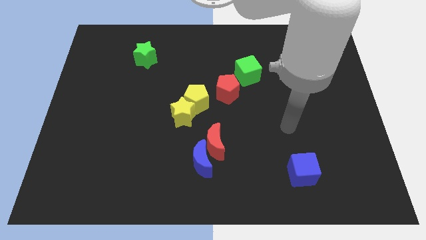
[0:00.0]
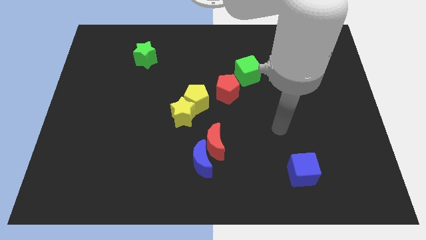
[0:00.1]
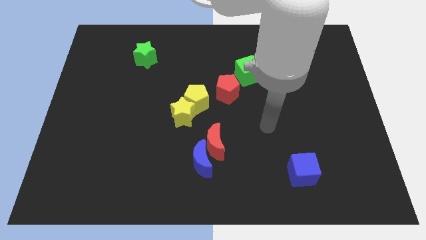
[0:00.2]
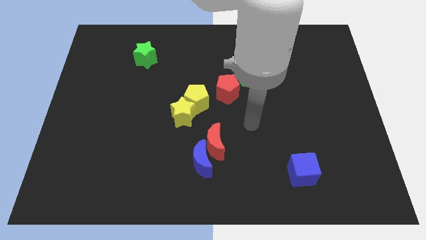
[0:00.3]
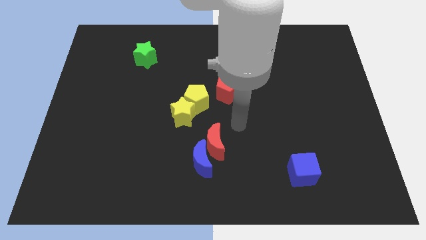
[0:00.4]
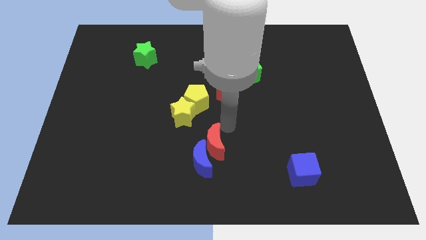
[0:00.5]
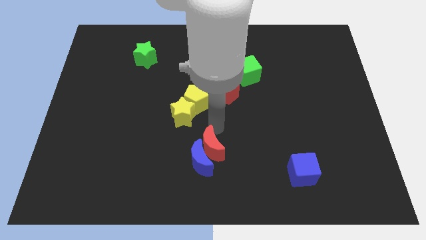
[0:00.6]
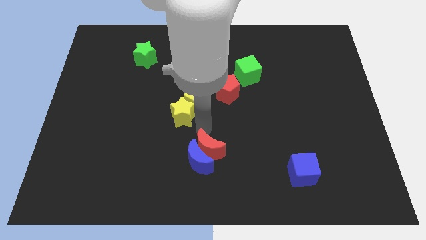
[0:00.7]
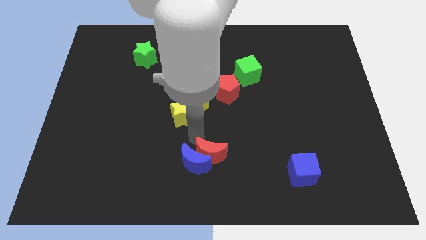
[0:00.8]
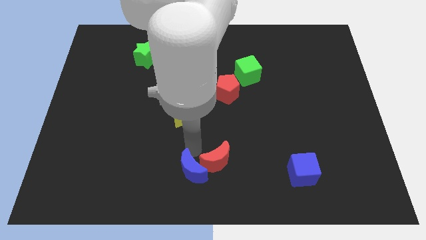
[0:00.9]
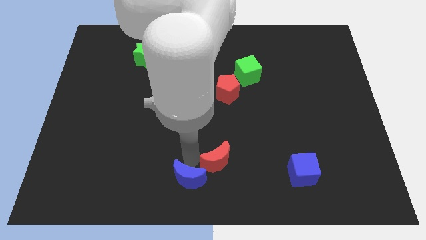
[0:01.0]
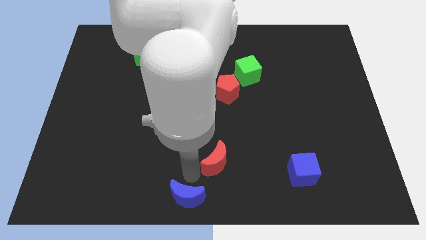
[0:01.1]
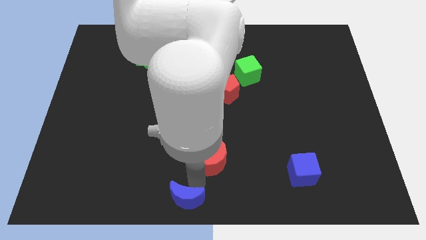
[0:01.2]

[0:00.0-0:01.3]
pull the red moon apart from the blue moon

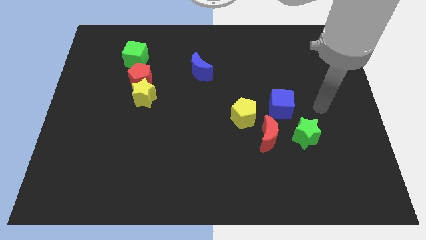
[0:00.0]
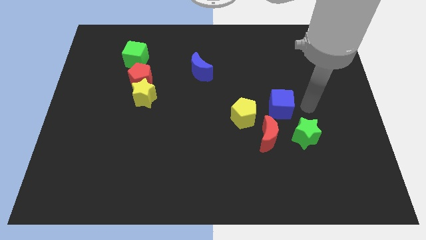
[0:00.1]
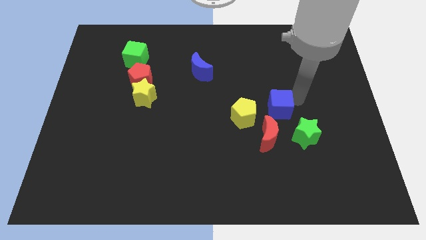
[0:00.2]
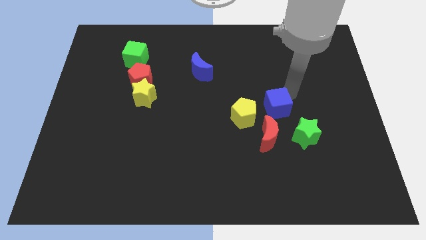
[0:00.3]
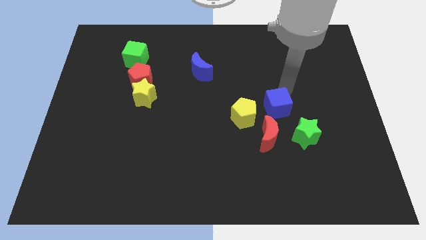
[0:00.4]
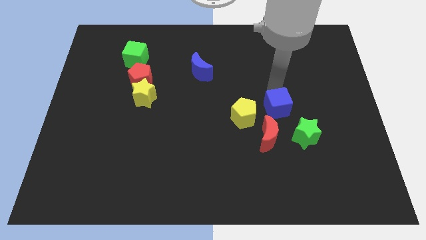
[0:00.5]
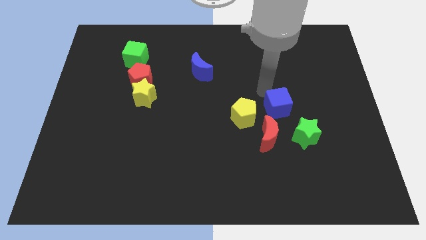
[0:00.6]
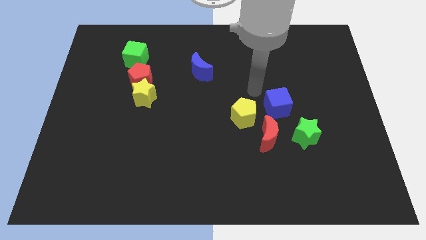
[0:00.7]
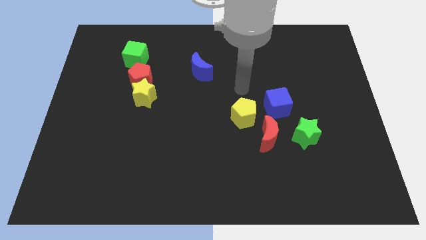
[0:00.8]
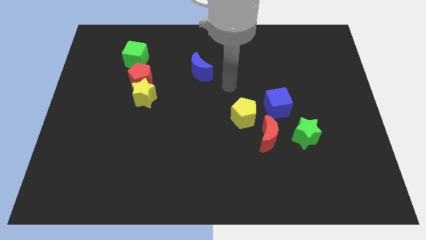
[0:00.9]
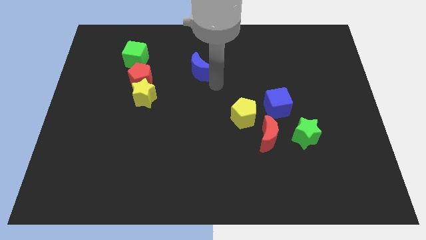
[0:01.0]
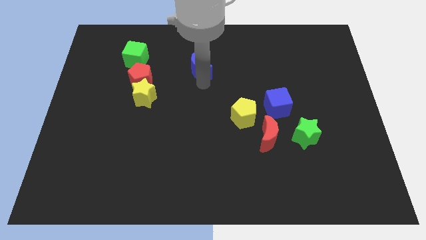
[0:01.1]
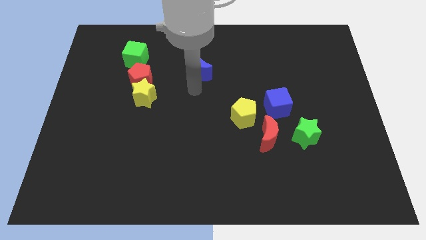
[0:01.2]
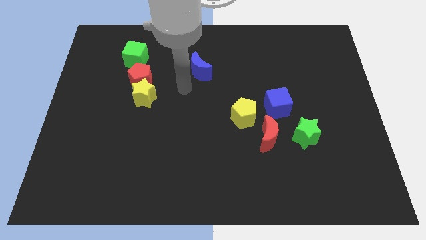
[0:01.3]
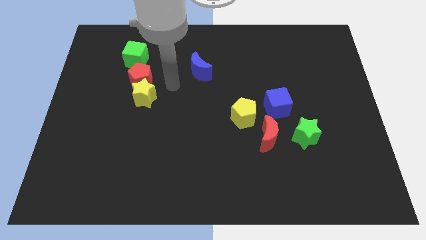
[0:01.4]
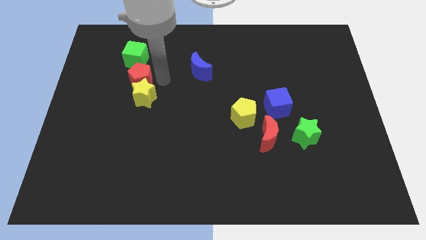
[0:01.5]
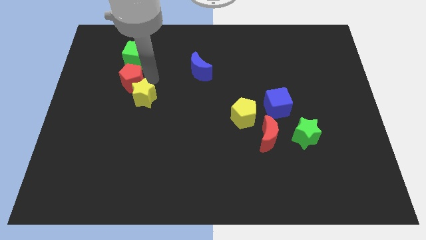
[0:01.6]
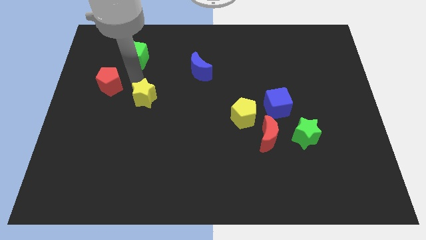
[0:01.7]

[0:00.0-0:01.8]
move the yellow star away from the red pentagon

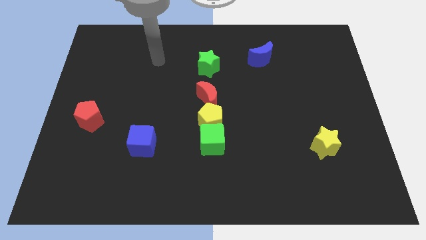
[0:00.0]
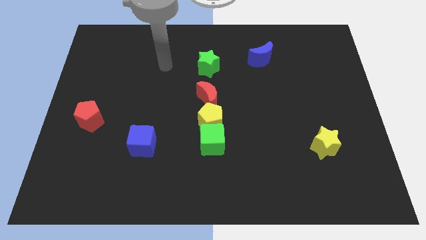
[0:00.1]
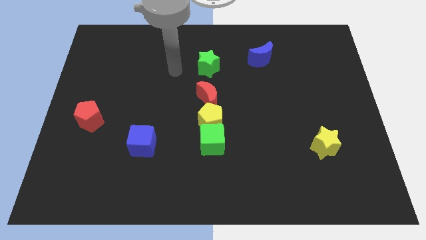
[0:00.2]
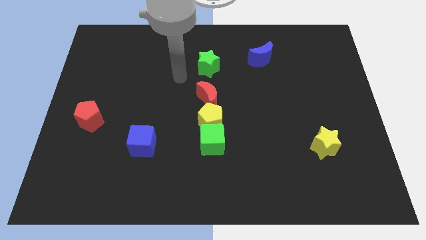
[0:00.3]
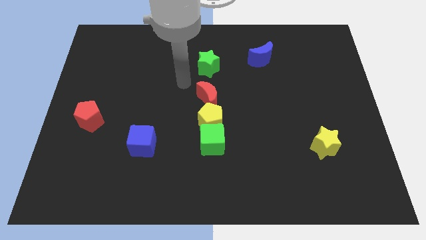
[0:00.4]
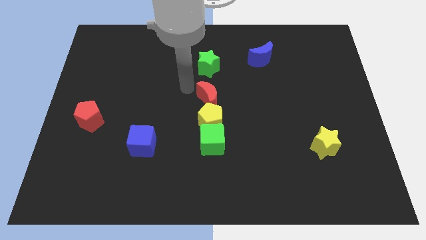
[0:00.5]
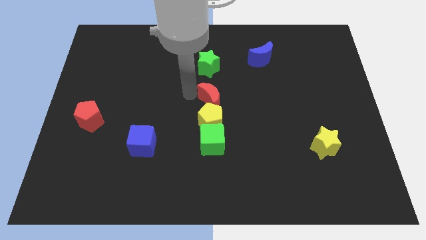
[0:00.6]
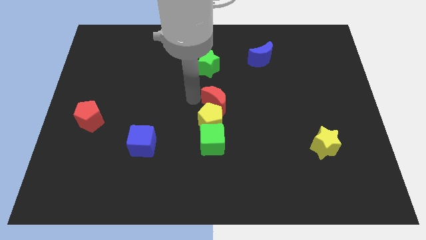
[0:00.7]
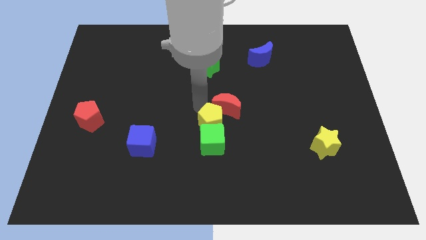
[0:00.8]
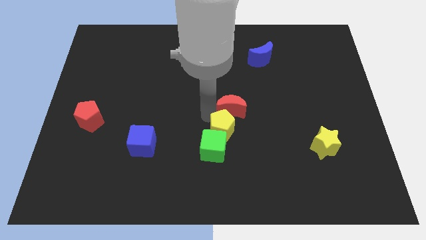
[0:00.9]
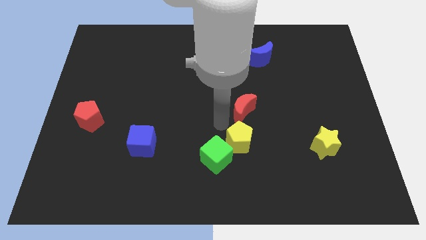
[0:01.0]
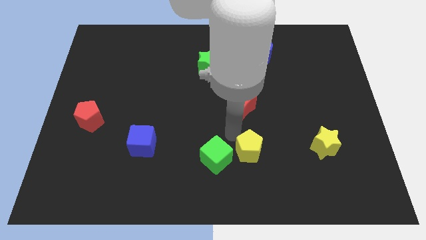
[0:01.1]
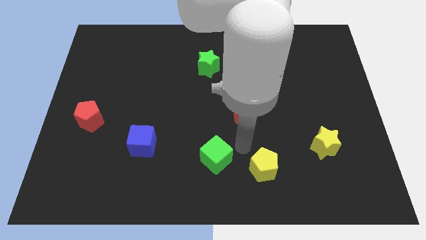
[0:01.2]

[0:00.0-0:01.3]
move the green cube away from the yellow pentagon

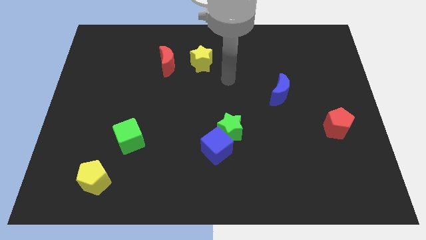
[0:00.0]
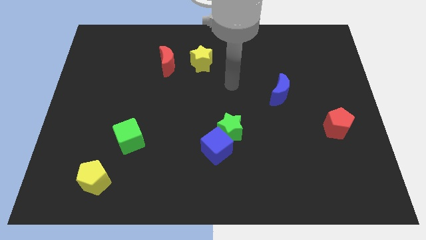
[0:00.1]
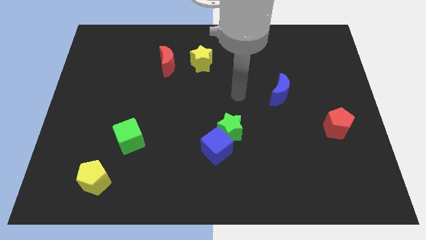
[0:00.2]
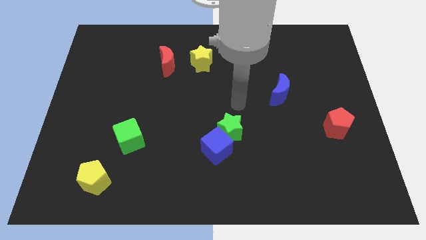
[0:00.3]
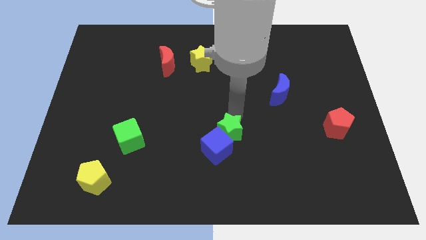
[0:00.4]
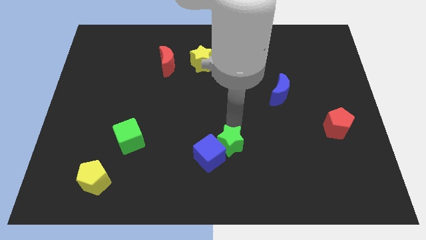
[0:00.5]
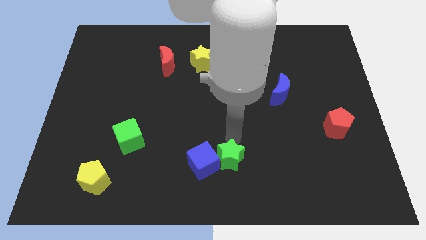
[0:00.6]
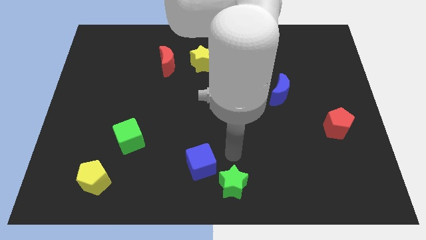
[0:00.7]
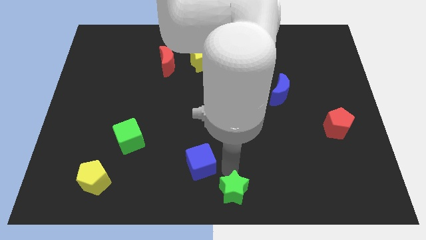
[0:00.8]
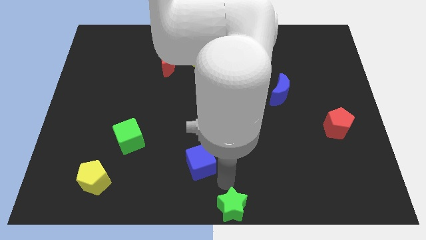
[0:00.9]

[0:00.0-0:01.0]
move the blue cube away from the green star

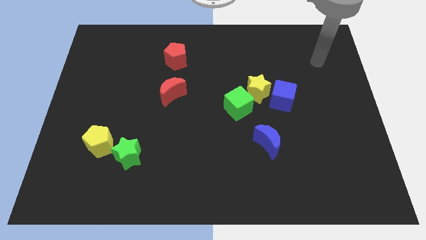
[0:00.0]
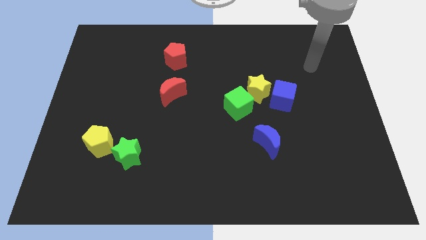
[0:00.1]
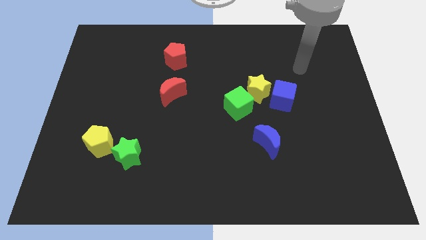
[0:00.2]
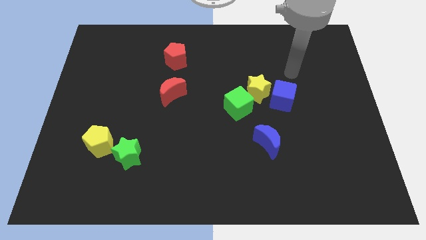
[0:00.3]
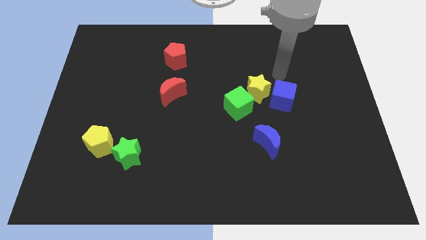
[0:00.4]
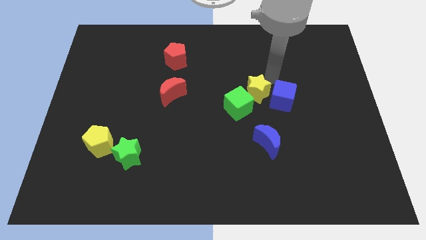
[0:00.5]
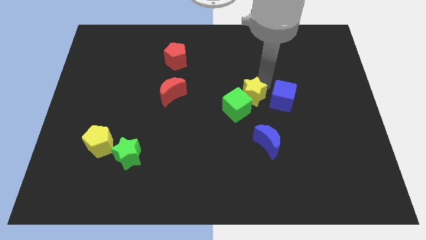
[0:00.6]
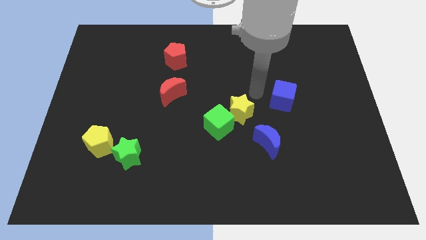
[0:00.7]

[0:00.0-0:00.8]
pull the blue cube apart from the yellow star

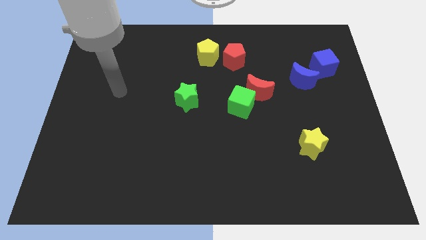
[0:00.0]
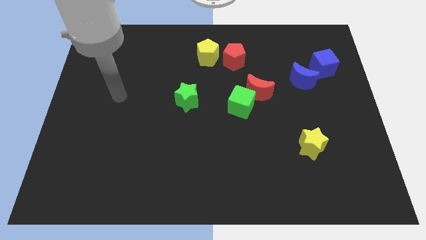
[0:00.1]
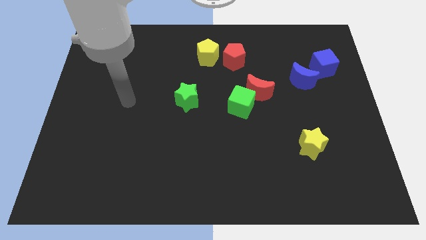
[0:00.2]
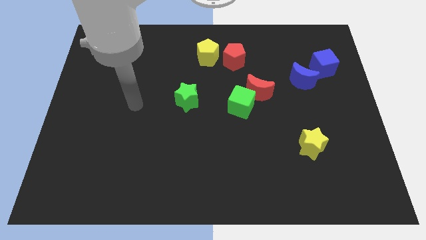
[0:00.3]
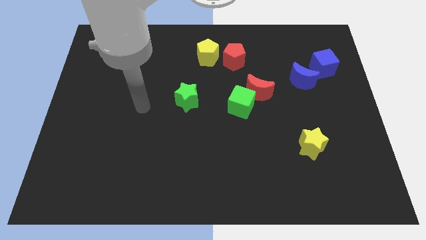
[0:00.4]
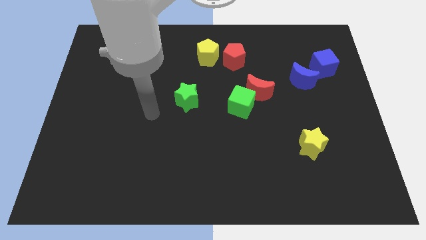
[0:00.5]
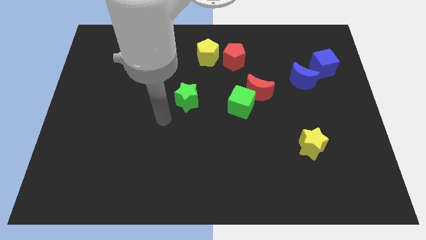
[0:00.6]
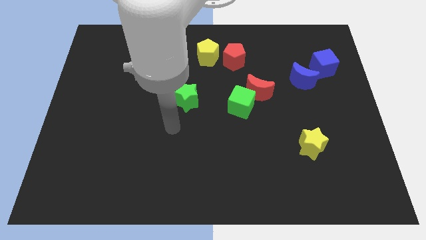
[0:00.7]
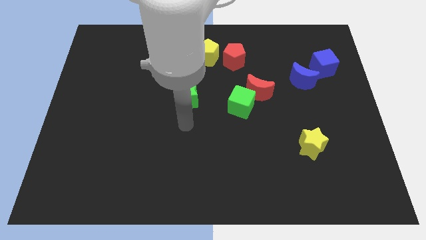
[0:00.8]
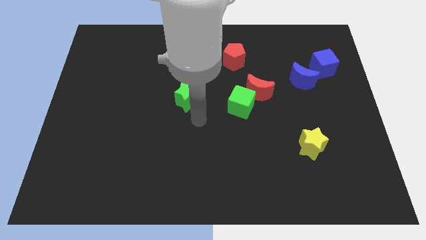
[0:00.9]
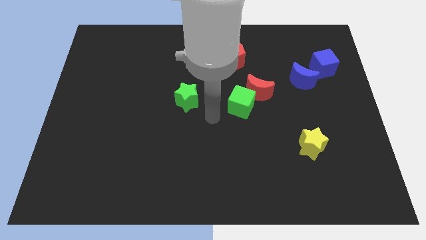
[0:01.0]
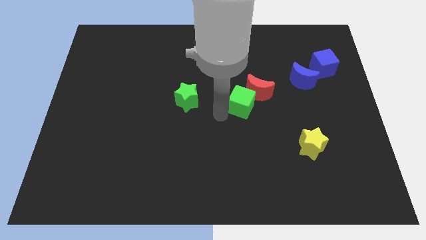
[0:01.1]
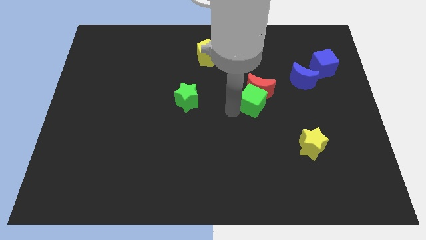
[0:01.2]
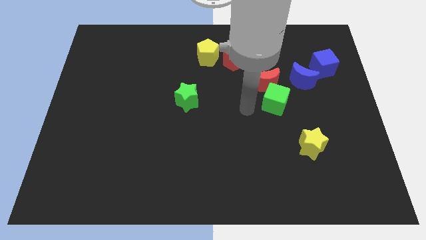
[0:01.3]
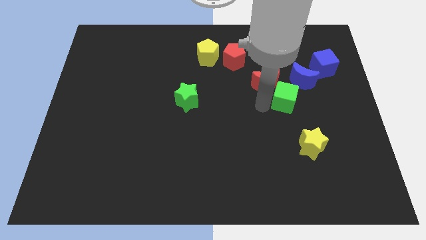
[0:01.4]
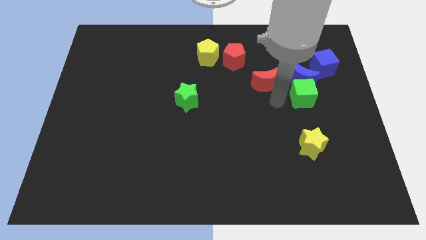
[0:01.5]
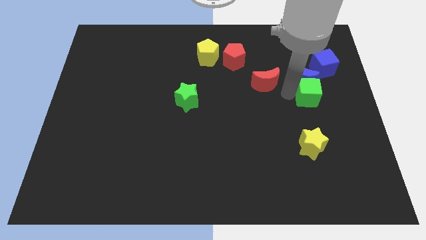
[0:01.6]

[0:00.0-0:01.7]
separate the red moon from the green cube

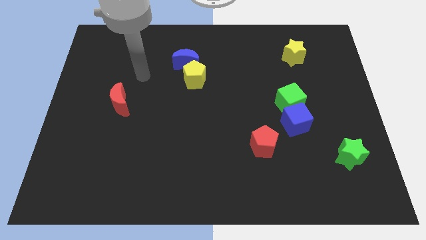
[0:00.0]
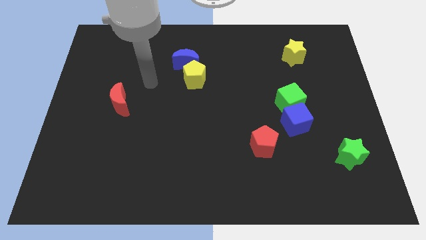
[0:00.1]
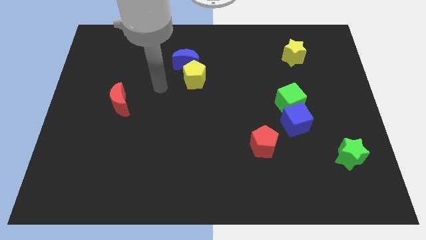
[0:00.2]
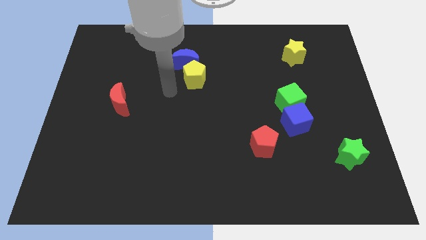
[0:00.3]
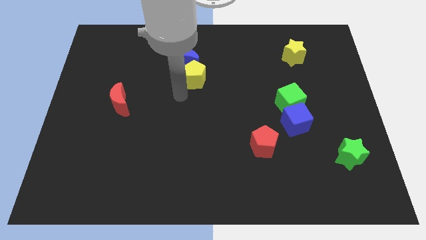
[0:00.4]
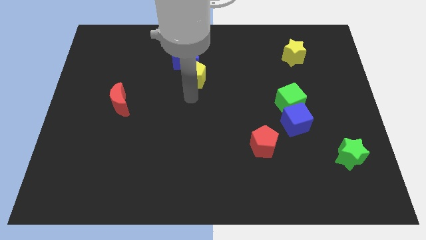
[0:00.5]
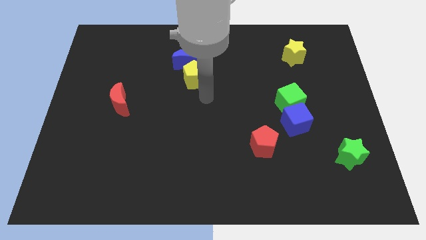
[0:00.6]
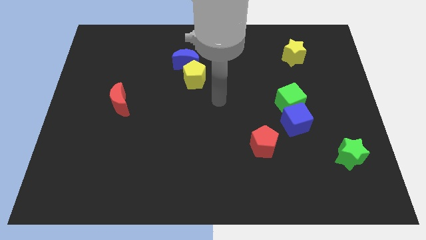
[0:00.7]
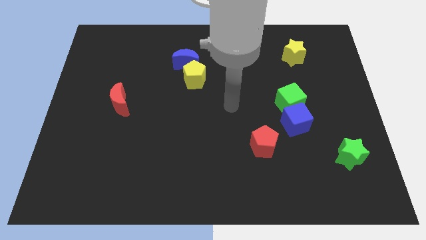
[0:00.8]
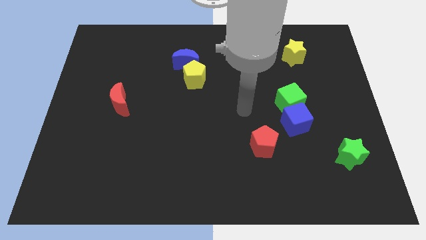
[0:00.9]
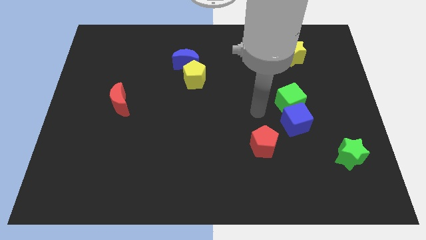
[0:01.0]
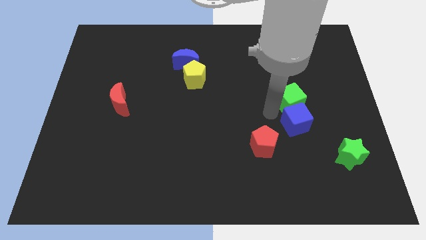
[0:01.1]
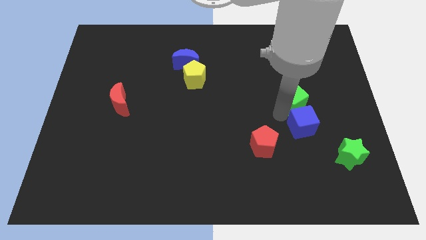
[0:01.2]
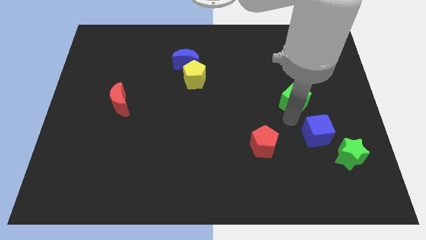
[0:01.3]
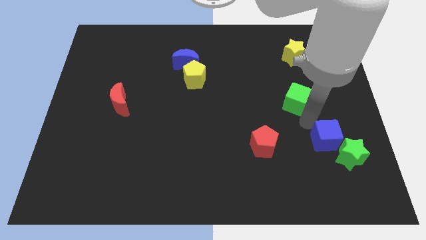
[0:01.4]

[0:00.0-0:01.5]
separate the green cube from the blue cube
